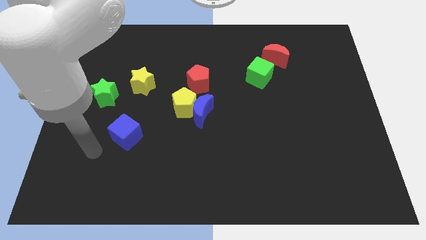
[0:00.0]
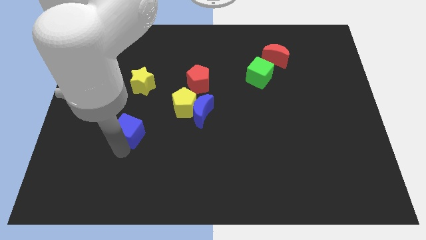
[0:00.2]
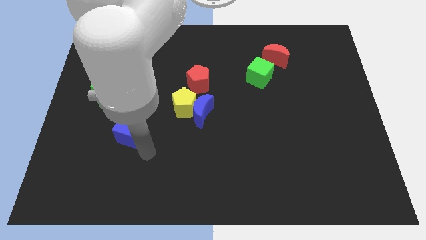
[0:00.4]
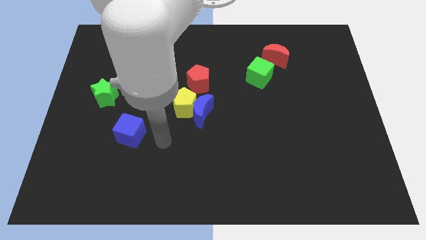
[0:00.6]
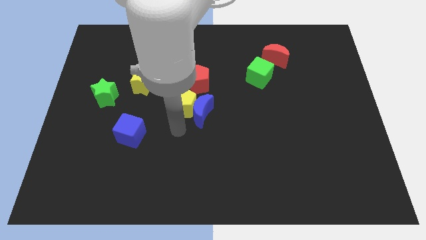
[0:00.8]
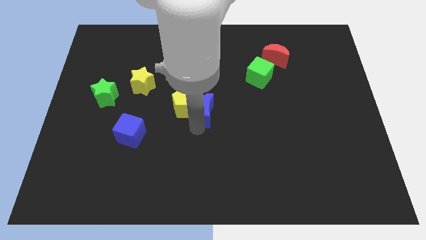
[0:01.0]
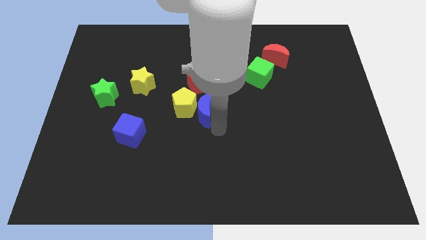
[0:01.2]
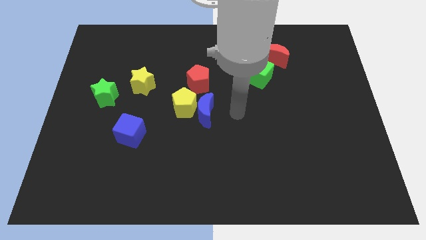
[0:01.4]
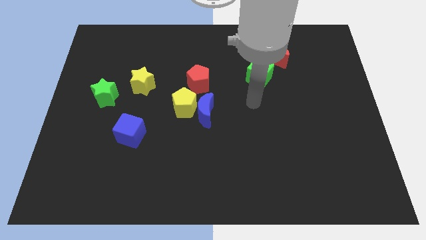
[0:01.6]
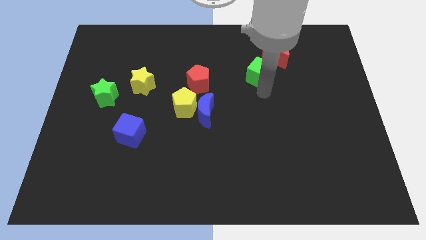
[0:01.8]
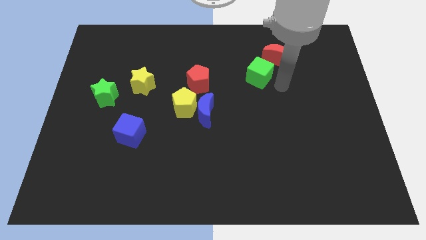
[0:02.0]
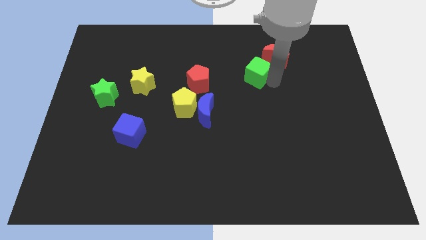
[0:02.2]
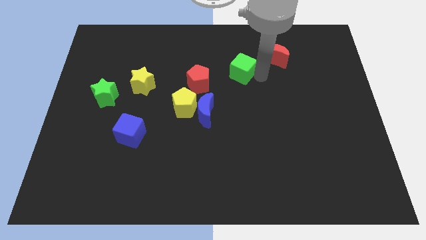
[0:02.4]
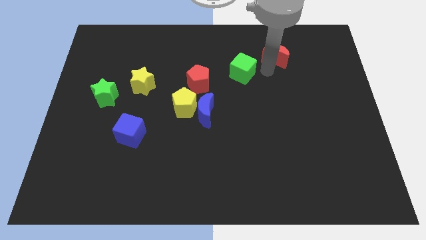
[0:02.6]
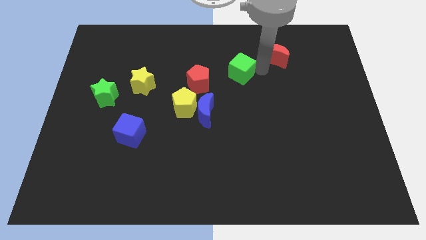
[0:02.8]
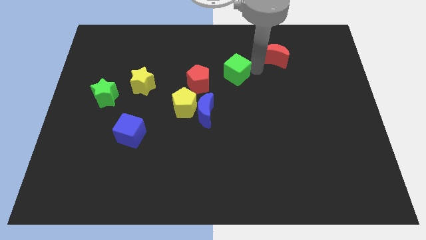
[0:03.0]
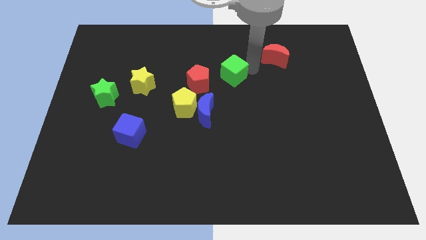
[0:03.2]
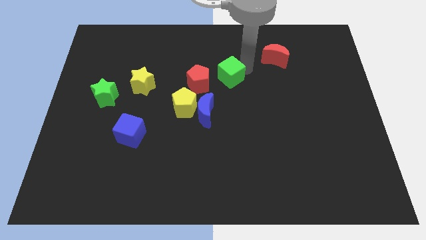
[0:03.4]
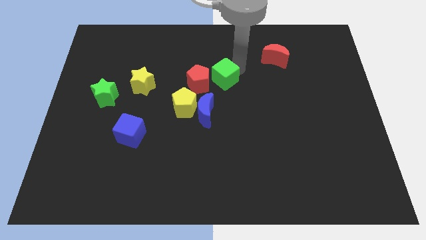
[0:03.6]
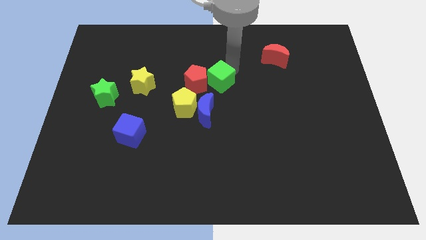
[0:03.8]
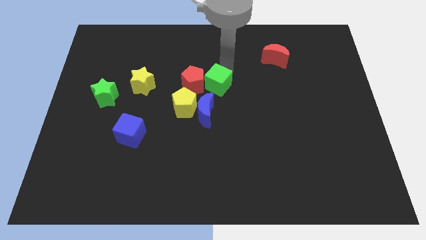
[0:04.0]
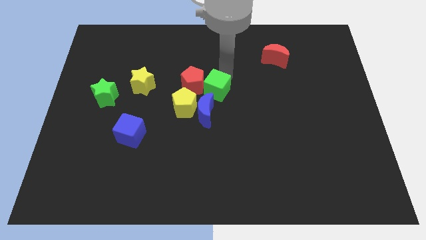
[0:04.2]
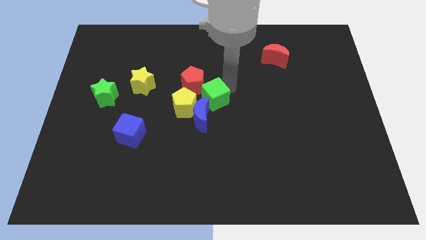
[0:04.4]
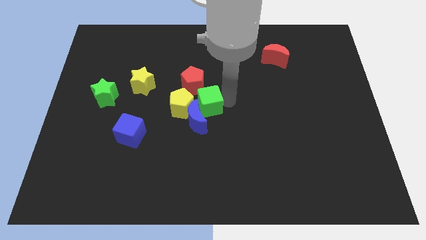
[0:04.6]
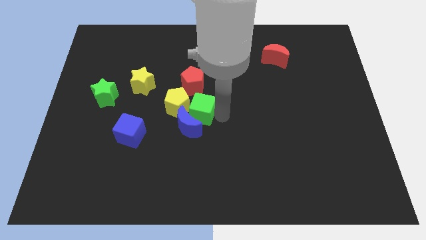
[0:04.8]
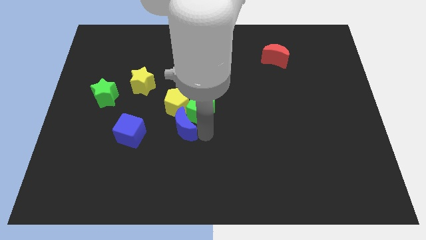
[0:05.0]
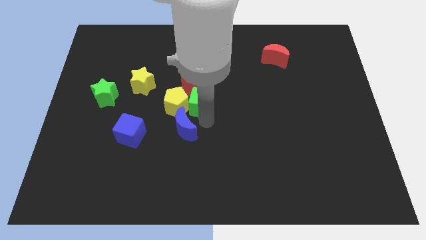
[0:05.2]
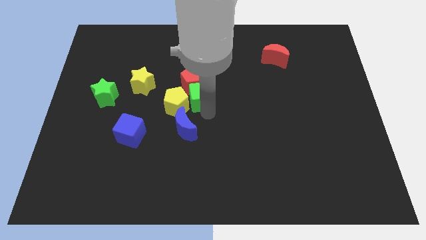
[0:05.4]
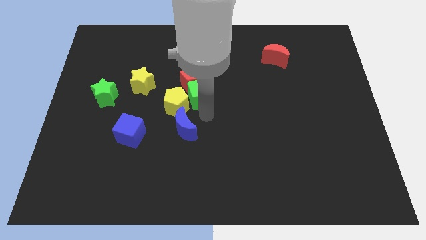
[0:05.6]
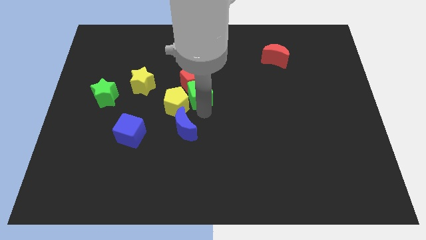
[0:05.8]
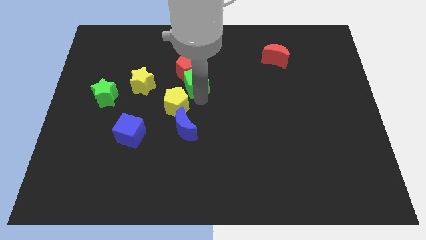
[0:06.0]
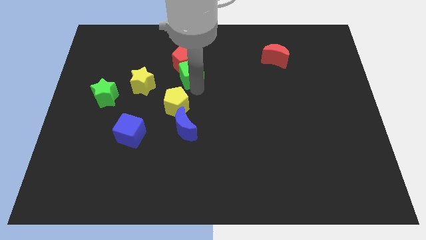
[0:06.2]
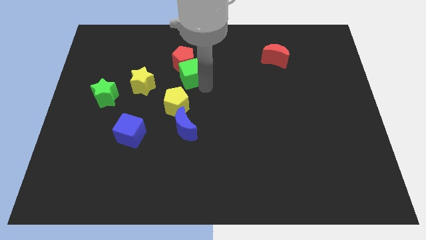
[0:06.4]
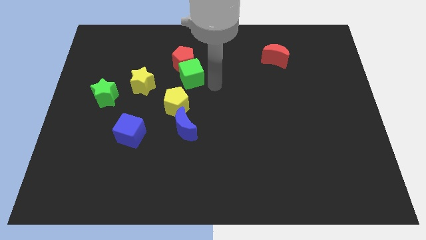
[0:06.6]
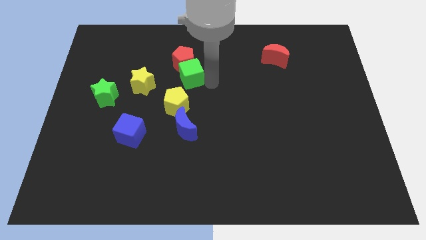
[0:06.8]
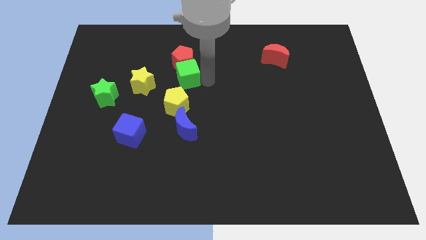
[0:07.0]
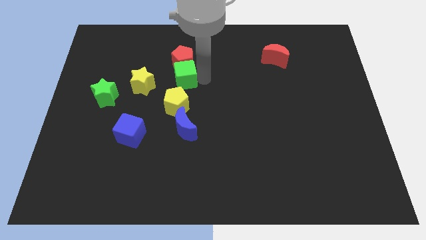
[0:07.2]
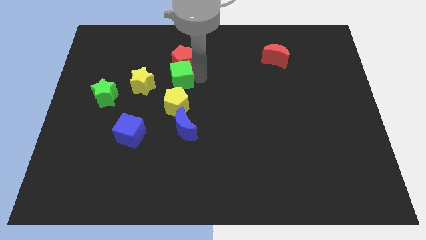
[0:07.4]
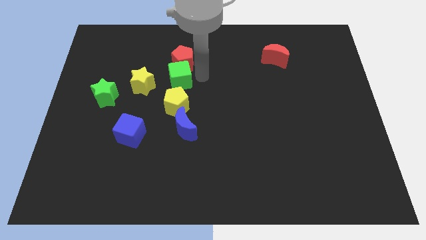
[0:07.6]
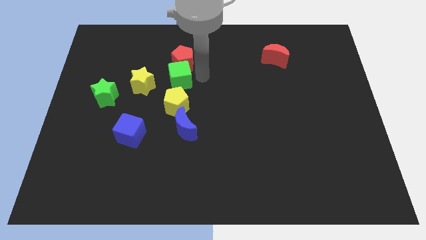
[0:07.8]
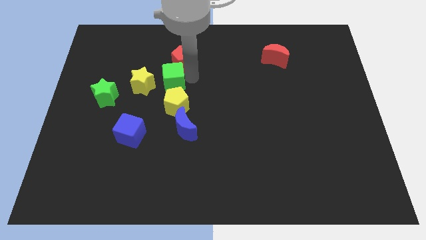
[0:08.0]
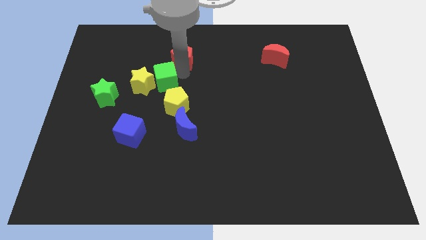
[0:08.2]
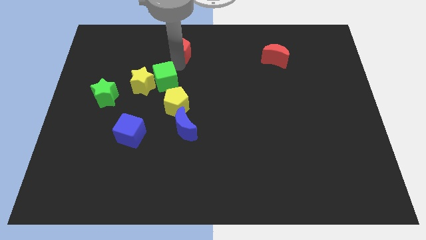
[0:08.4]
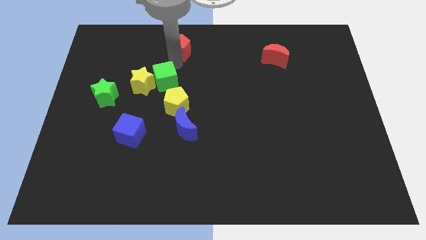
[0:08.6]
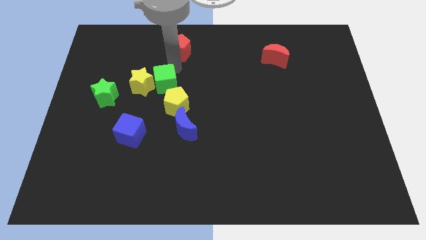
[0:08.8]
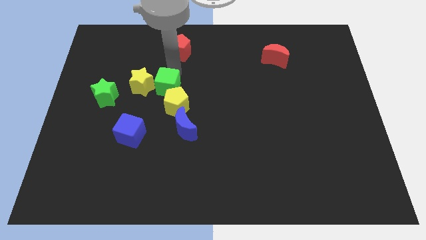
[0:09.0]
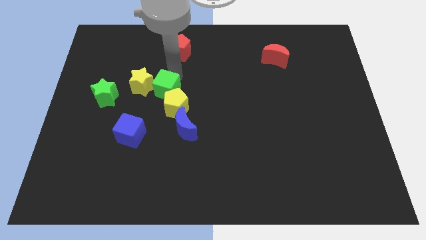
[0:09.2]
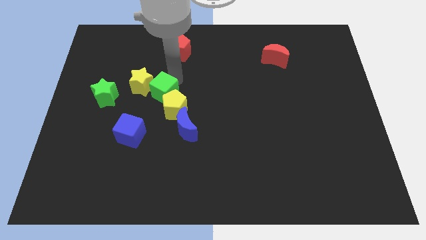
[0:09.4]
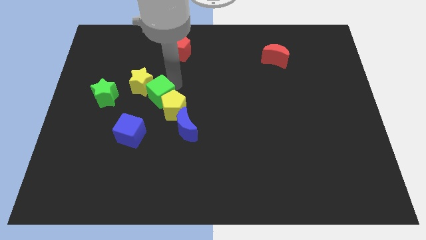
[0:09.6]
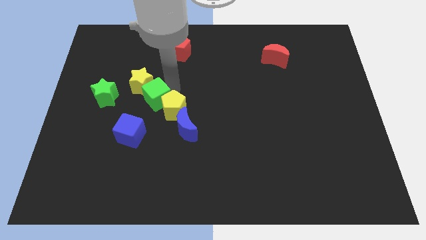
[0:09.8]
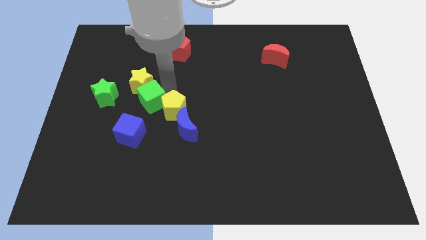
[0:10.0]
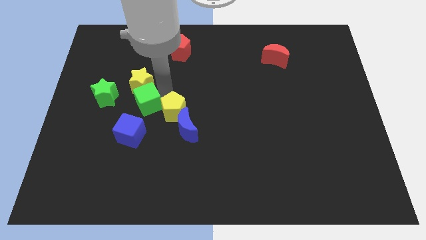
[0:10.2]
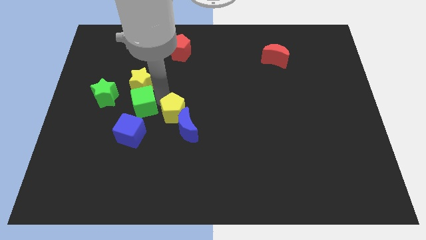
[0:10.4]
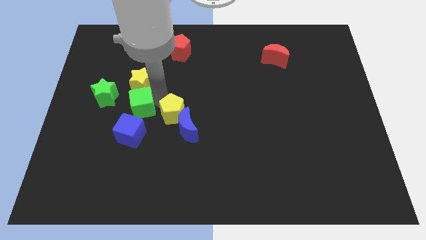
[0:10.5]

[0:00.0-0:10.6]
push the green cube to the bottom left side of the yellow star

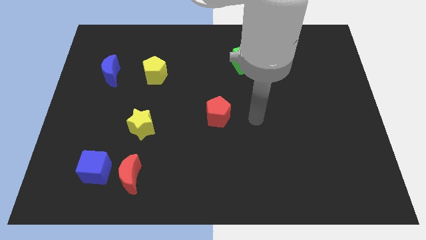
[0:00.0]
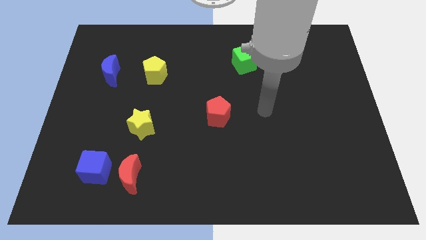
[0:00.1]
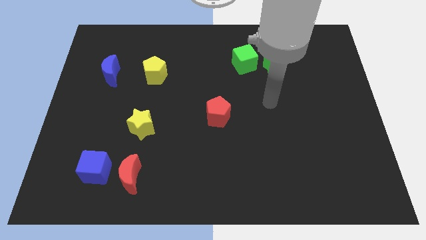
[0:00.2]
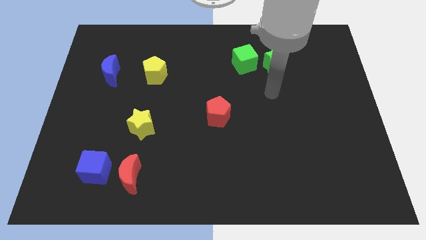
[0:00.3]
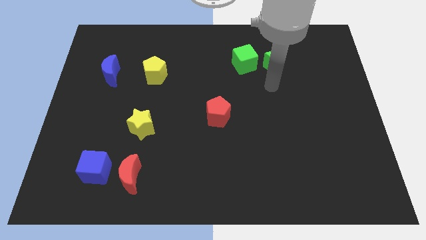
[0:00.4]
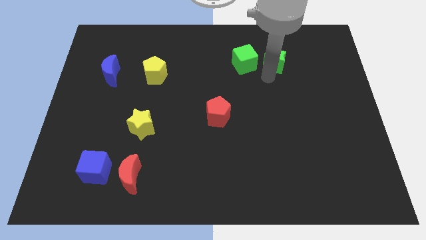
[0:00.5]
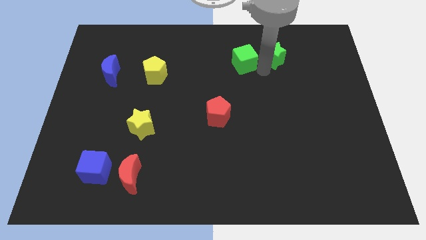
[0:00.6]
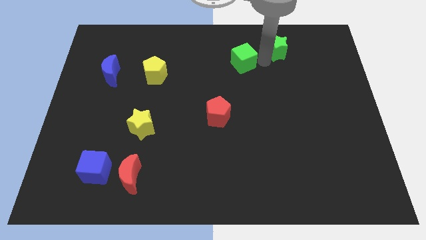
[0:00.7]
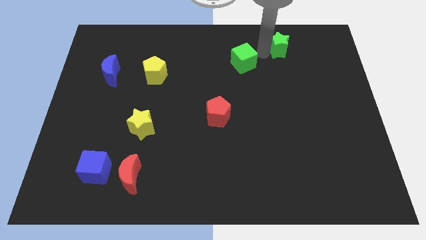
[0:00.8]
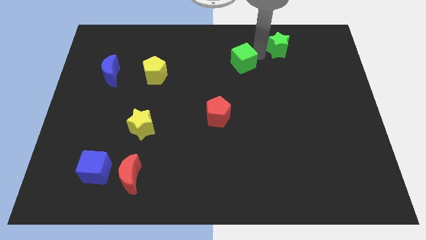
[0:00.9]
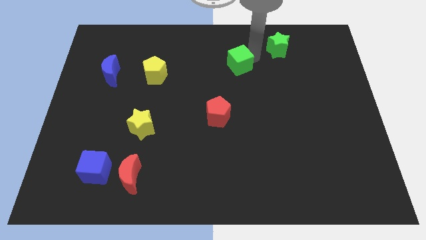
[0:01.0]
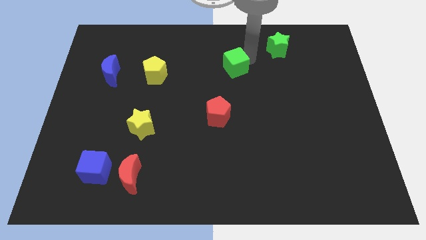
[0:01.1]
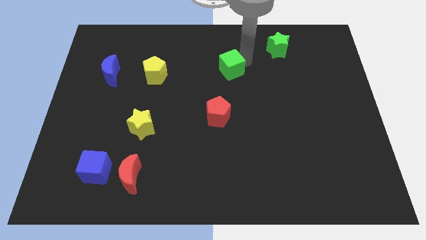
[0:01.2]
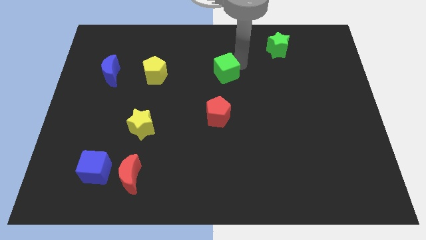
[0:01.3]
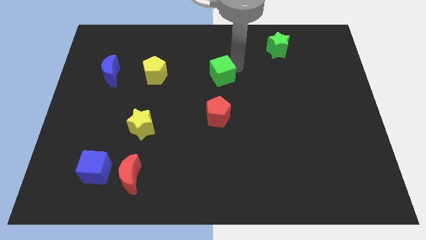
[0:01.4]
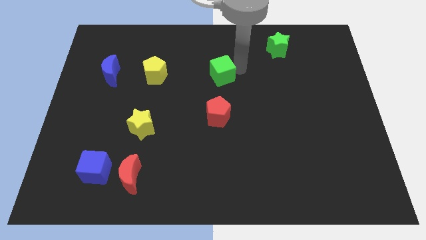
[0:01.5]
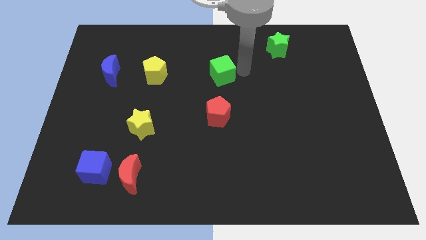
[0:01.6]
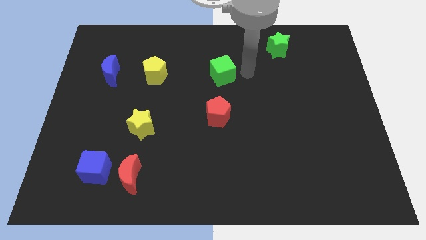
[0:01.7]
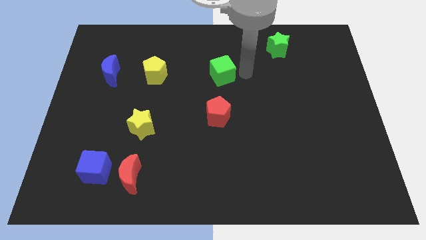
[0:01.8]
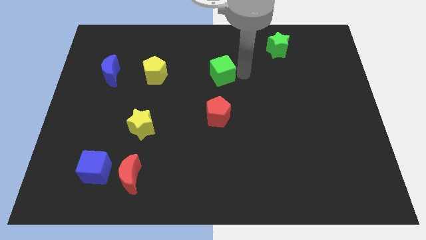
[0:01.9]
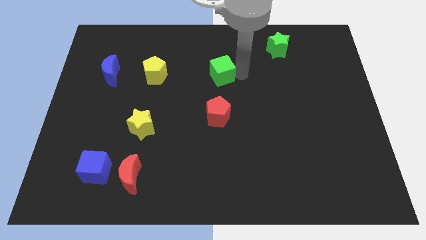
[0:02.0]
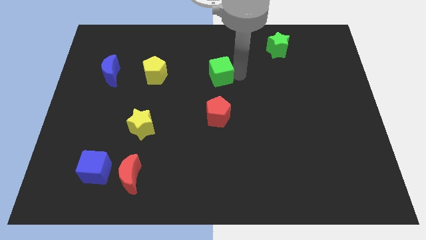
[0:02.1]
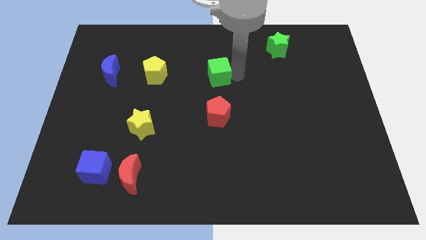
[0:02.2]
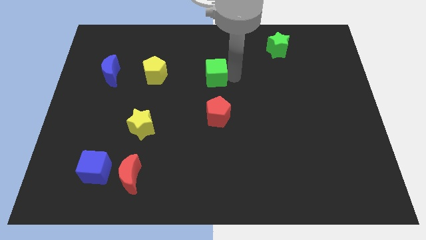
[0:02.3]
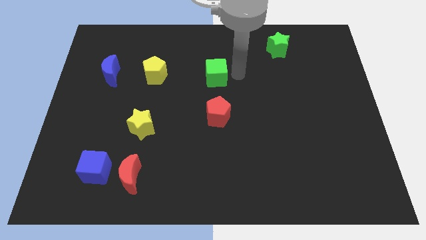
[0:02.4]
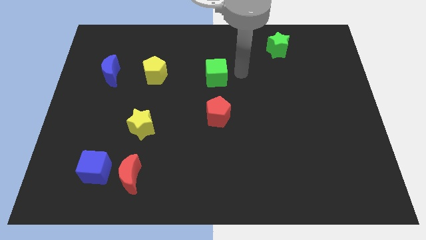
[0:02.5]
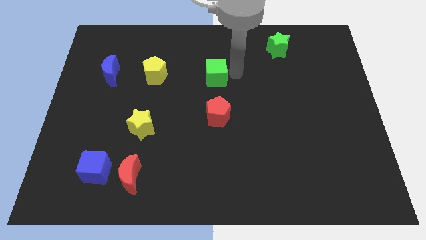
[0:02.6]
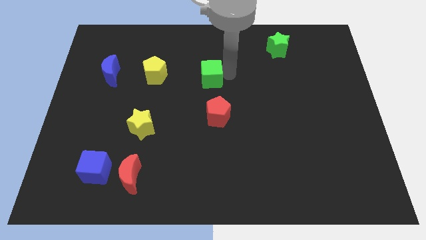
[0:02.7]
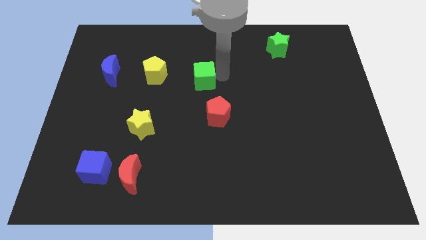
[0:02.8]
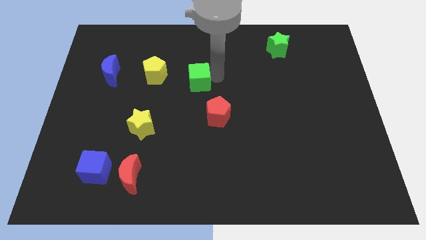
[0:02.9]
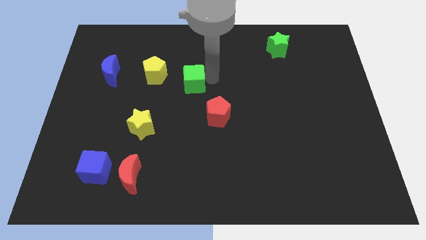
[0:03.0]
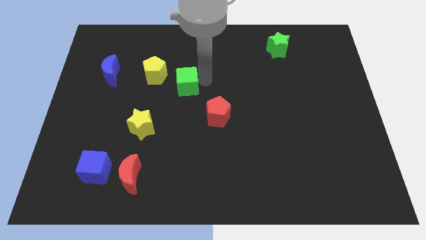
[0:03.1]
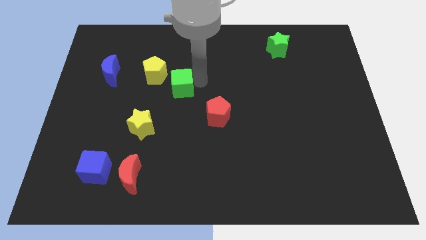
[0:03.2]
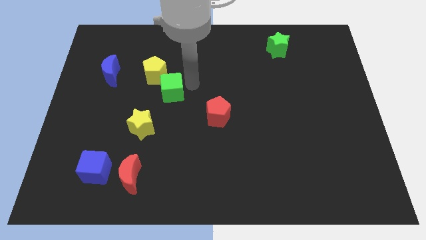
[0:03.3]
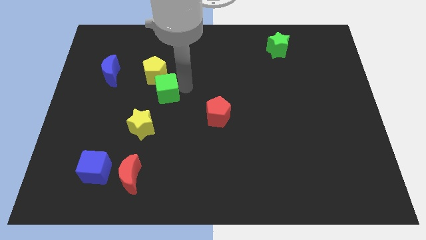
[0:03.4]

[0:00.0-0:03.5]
put the green cube to the top of the yellow star
